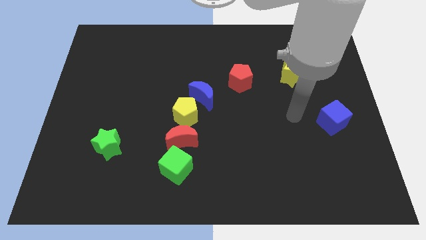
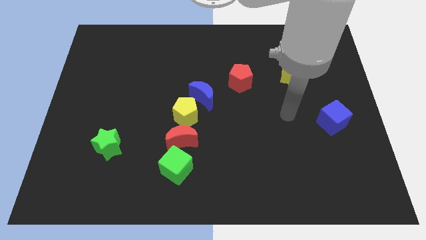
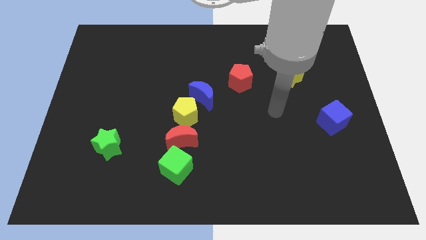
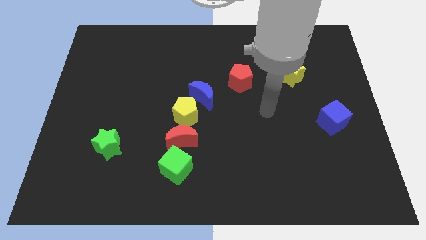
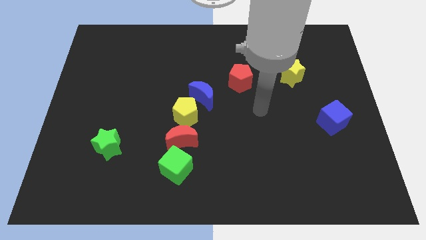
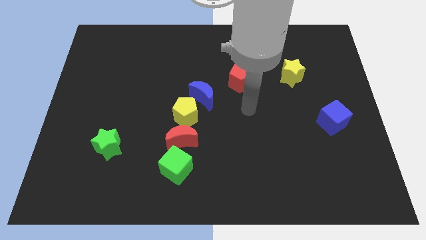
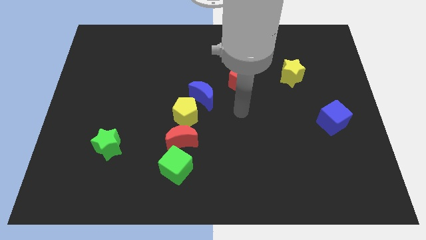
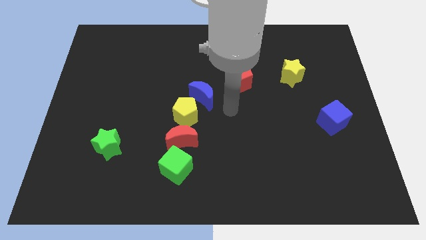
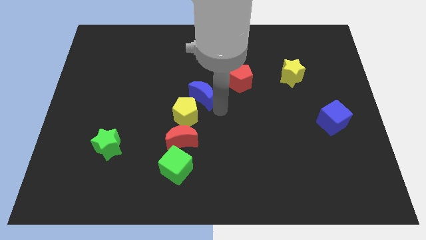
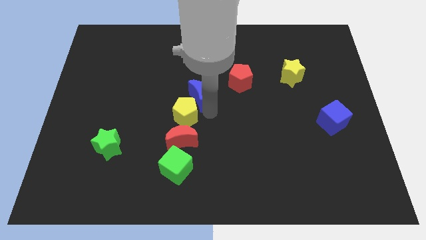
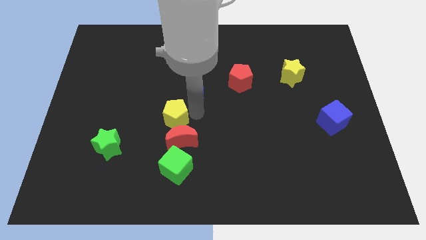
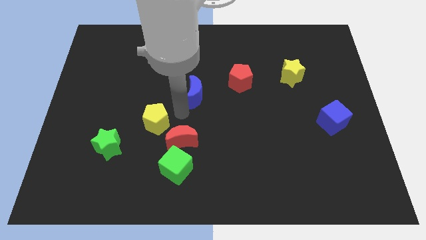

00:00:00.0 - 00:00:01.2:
move the blue moon away from the yellow pentagon

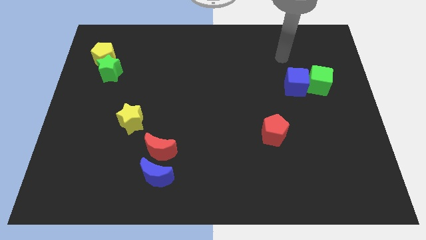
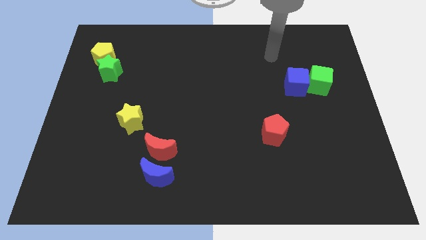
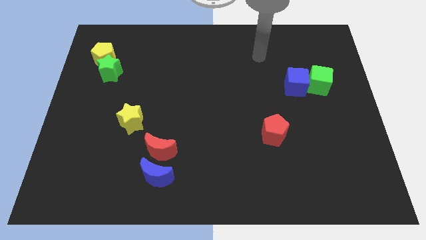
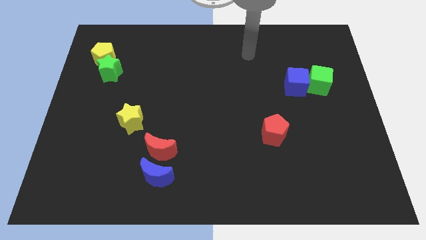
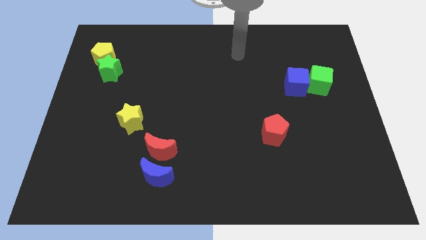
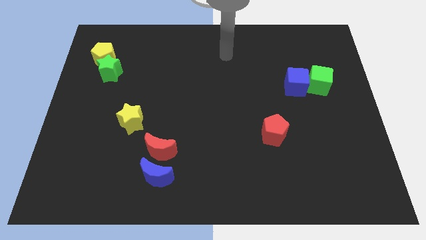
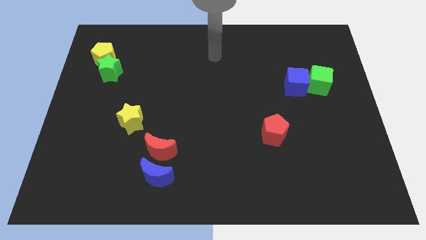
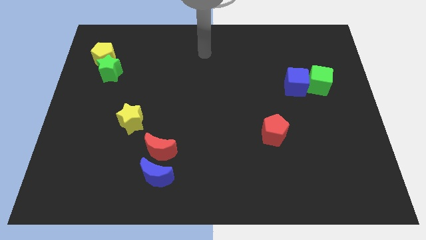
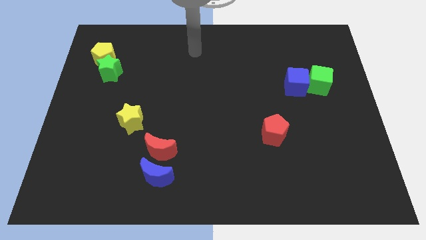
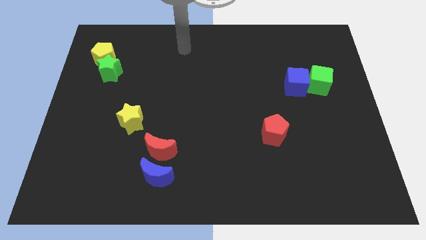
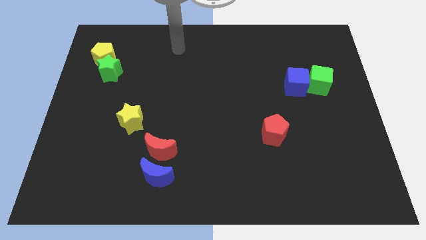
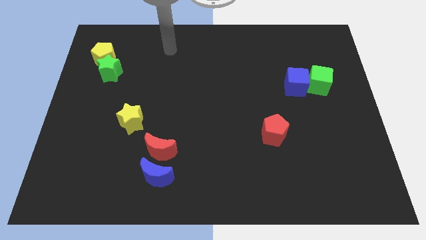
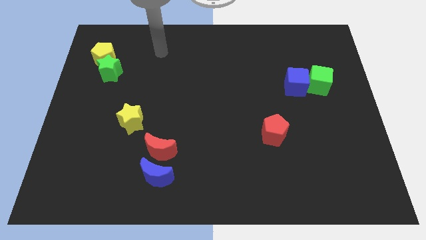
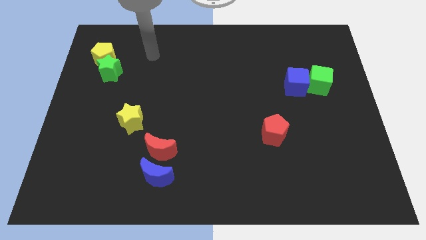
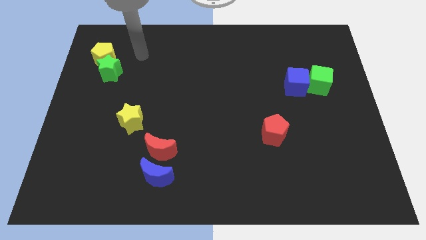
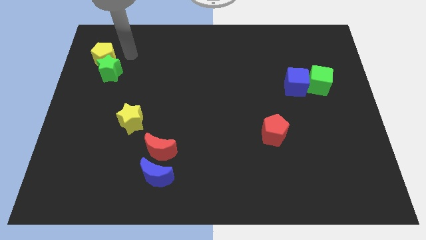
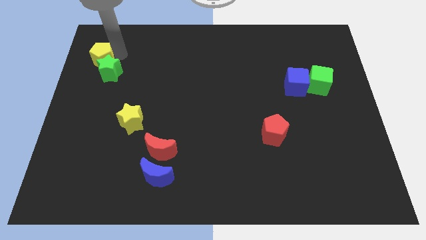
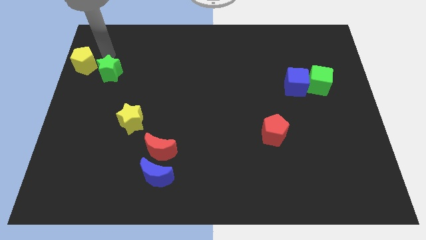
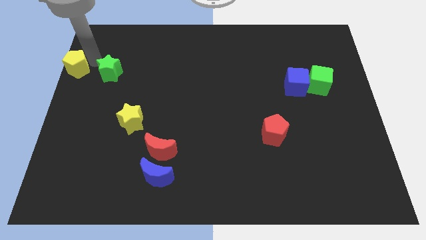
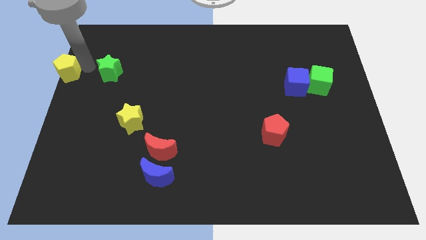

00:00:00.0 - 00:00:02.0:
move the green star away from the yellow pentagon

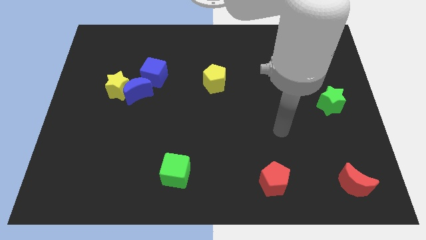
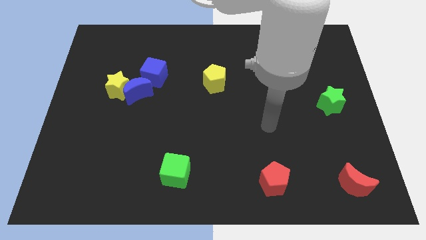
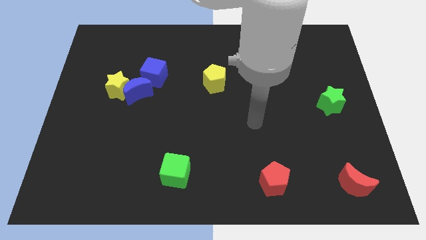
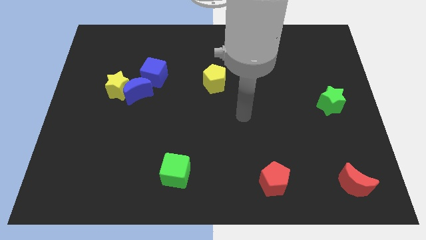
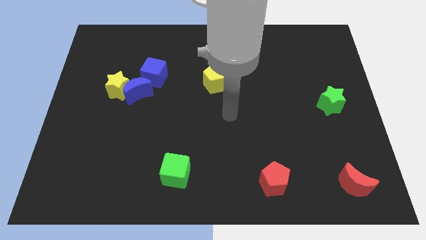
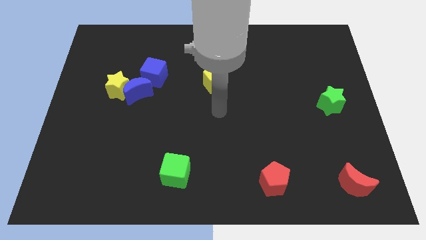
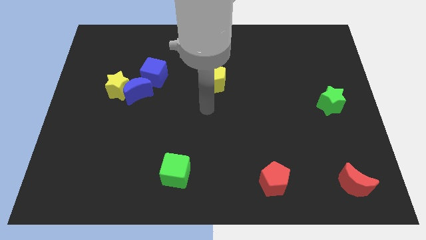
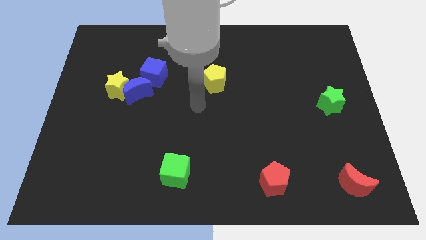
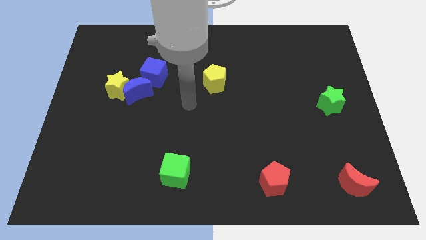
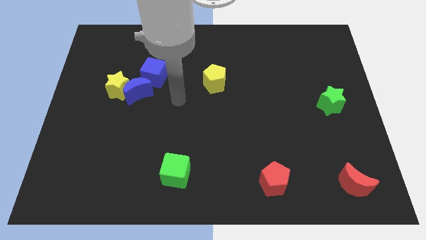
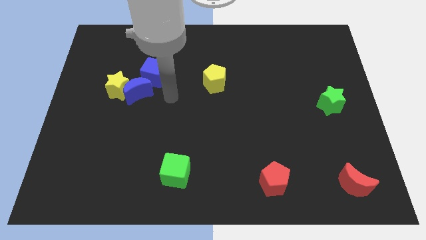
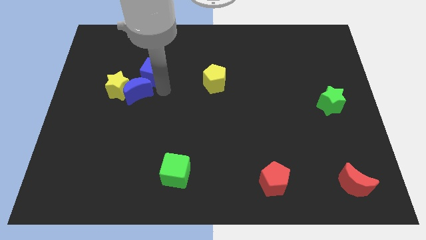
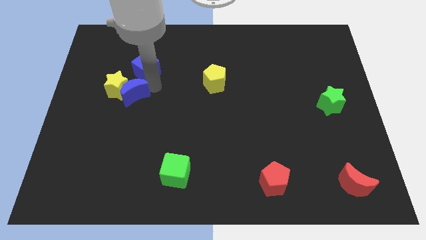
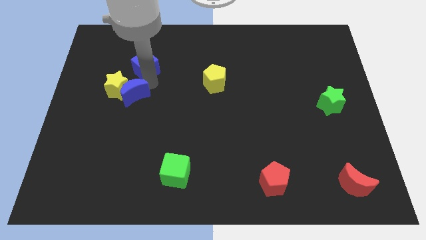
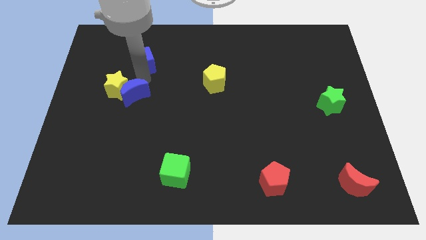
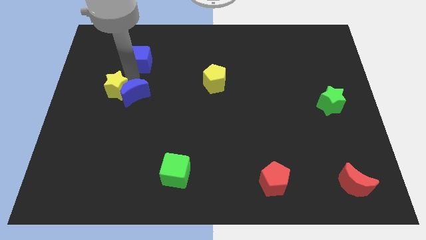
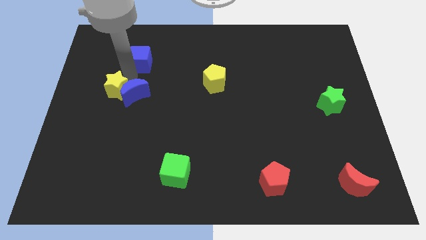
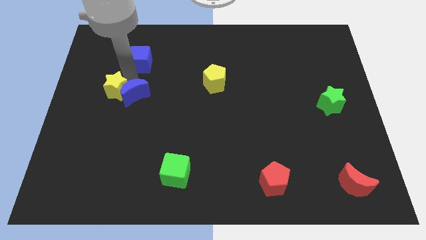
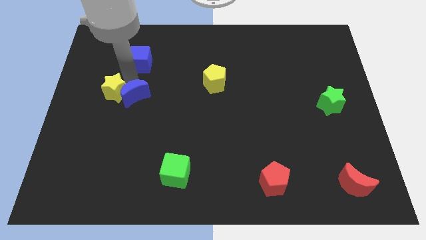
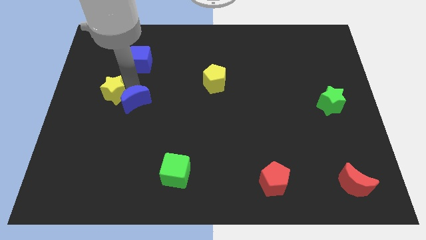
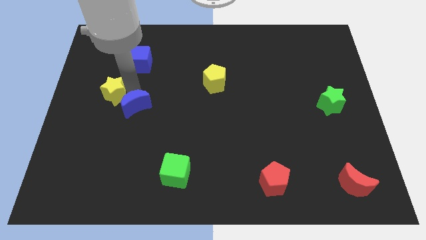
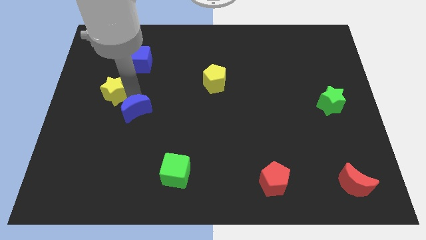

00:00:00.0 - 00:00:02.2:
pull the blue moon apart from the yellow star and blue cube

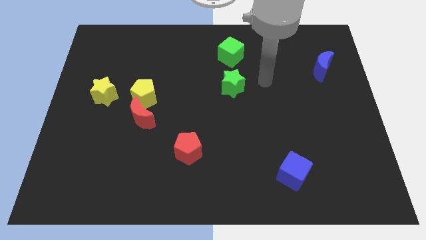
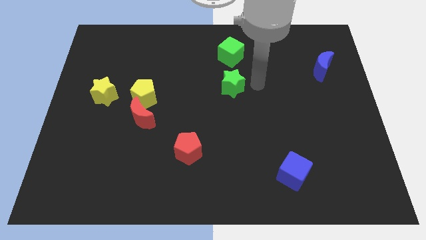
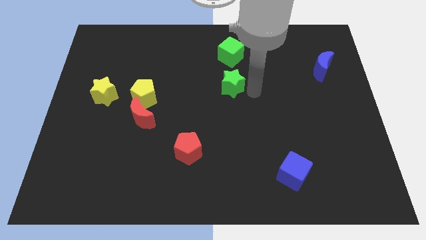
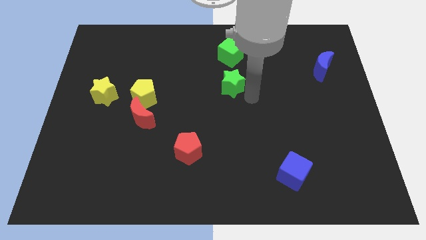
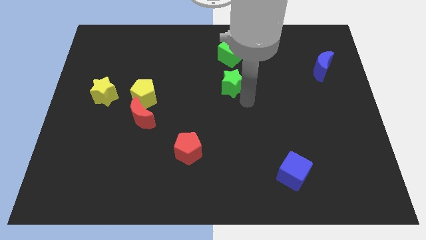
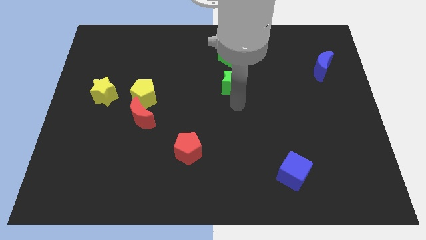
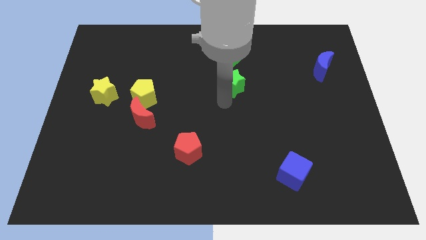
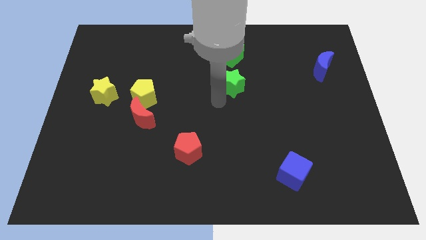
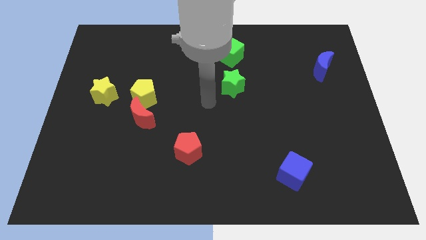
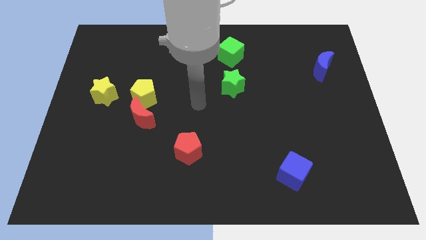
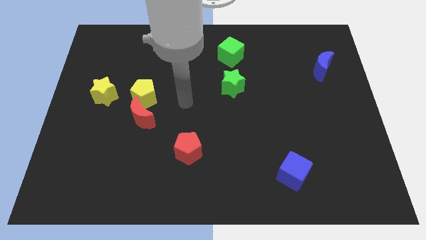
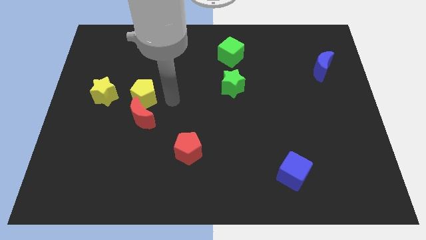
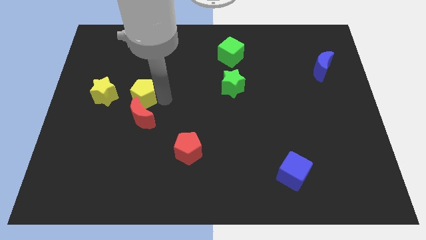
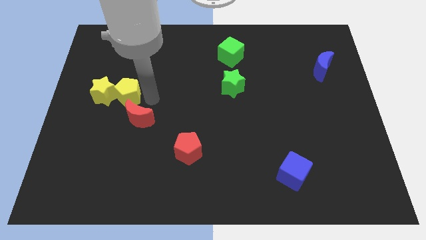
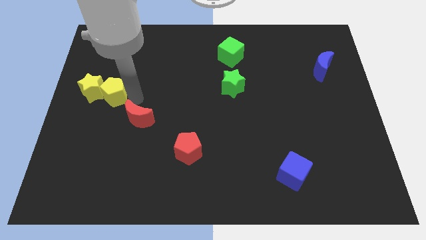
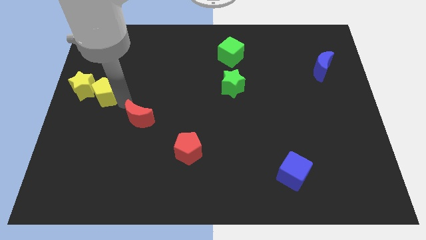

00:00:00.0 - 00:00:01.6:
separate the red moon from the yellow pentagon

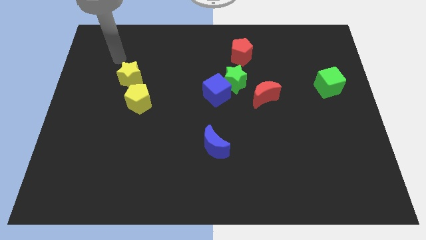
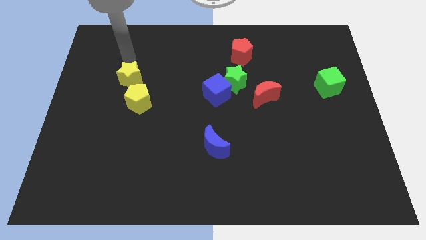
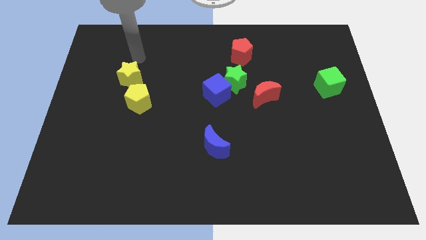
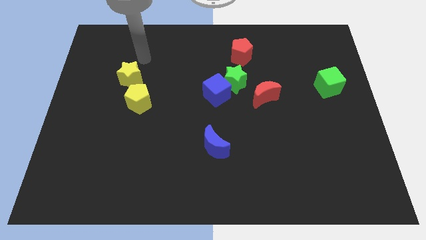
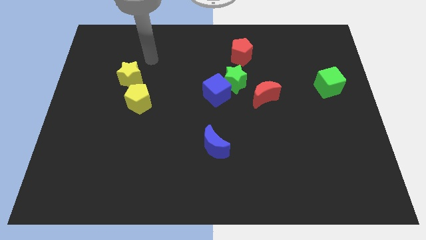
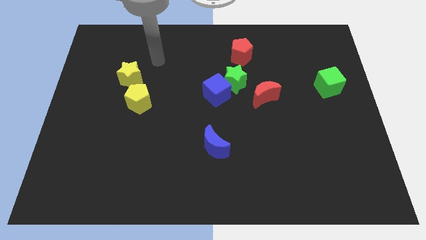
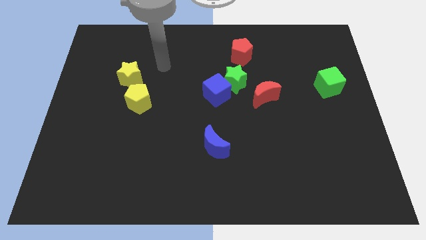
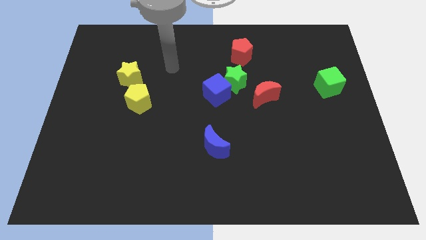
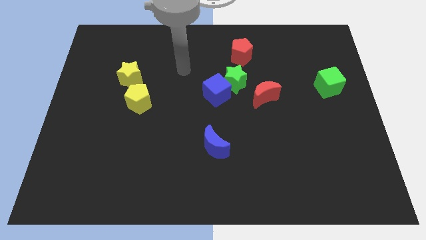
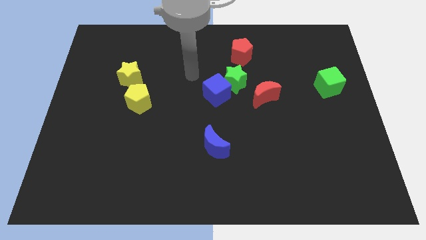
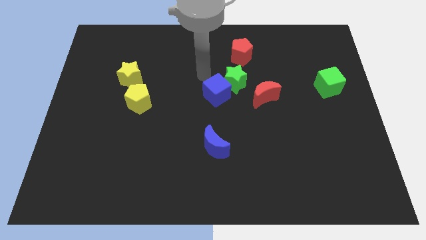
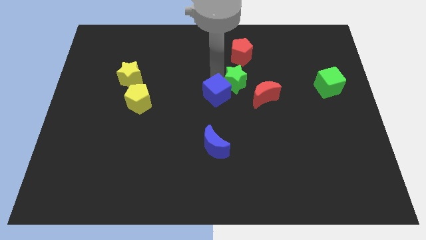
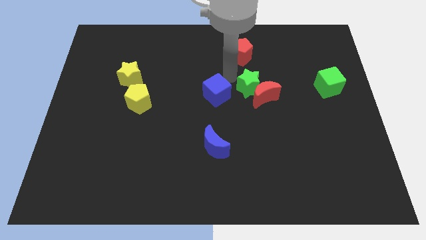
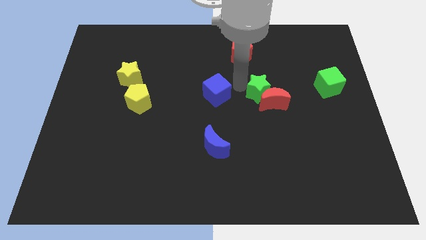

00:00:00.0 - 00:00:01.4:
move the blue cube away from the green star

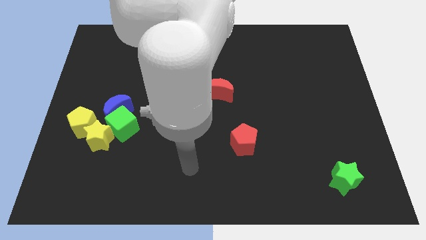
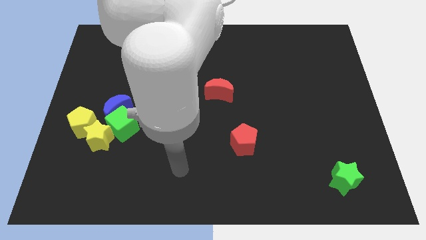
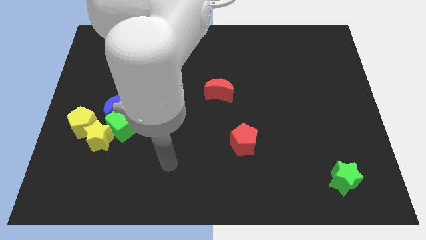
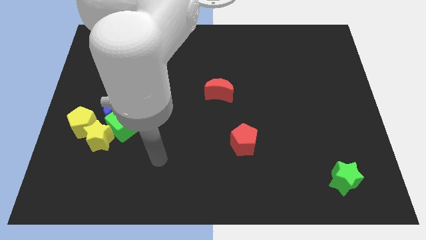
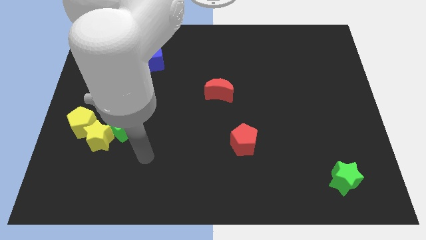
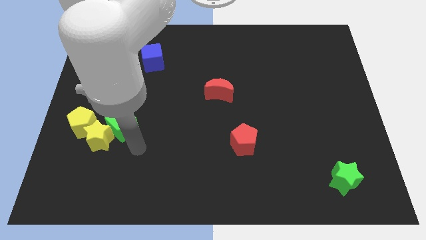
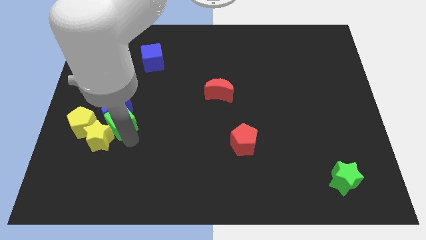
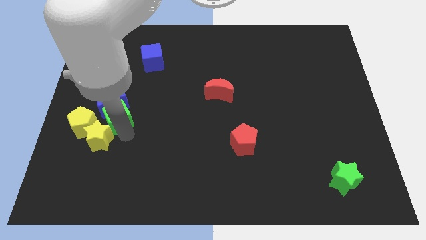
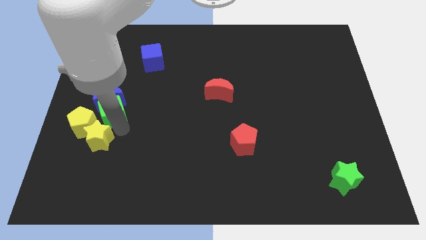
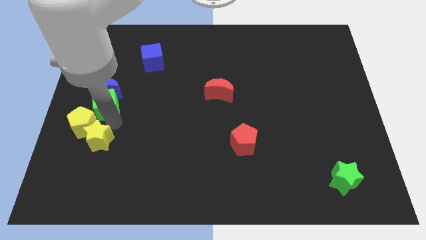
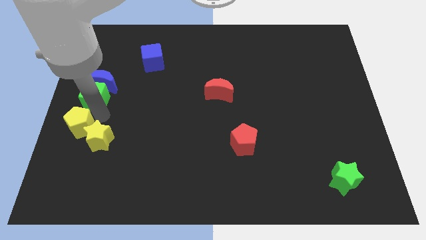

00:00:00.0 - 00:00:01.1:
separate the yellow star from the clump

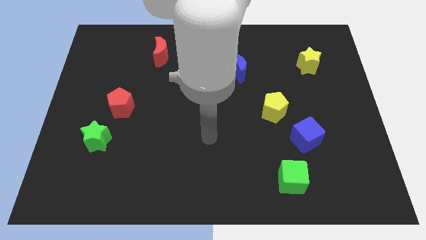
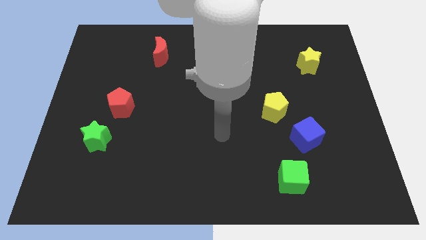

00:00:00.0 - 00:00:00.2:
separate the blue cube from the yellow pentagon
